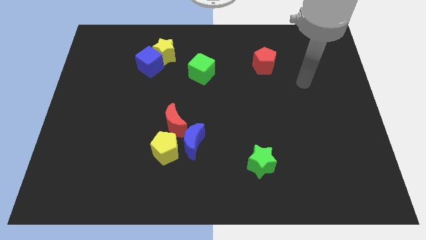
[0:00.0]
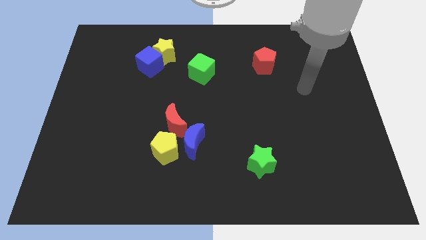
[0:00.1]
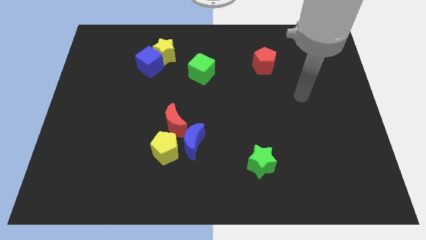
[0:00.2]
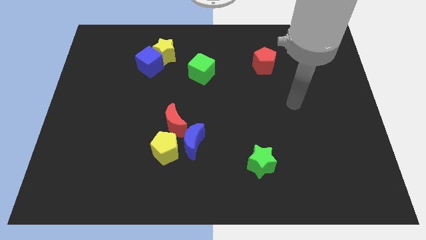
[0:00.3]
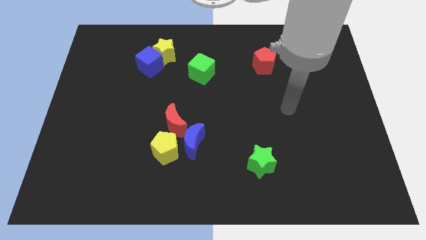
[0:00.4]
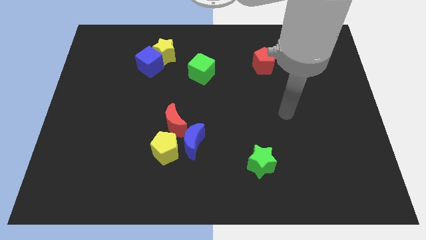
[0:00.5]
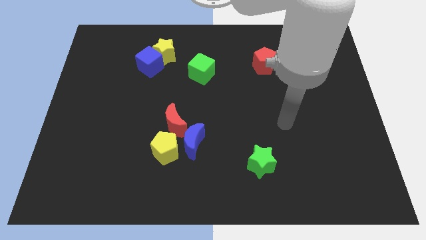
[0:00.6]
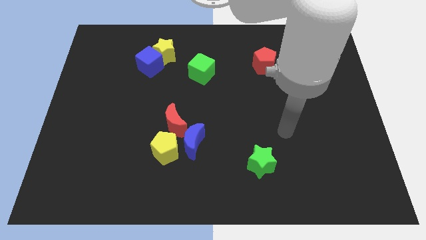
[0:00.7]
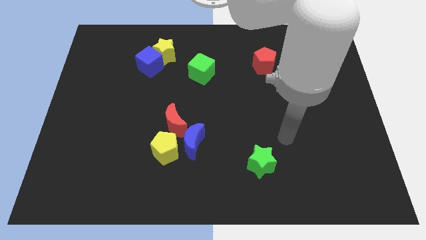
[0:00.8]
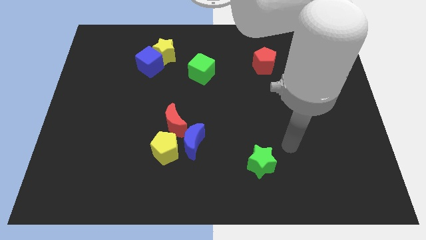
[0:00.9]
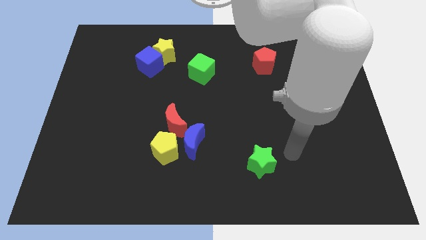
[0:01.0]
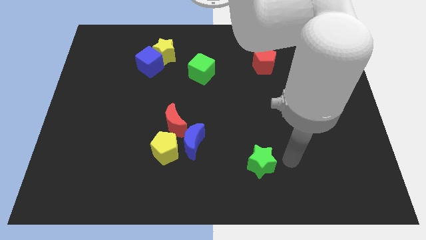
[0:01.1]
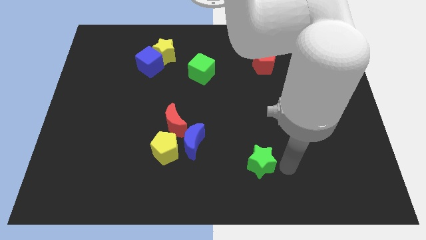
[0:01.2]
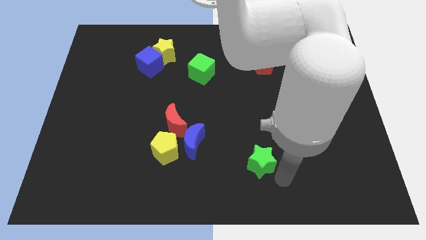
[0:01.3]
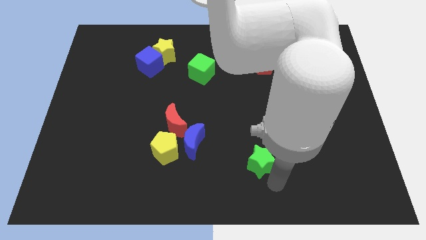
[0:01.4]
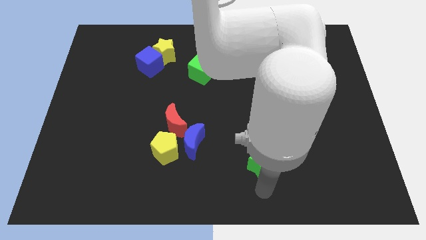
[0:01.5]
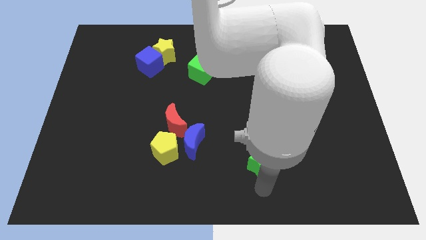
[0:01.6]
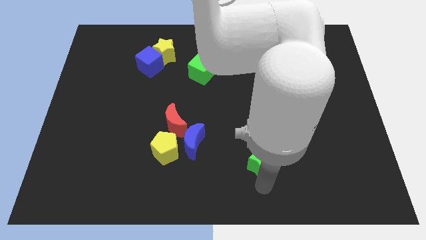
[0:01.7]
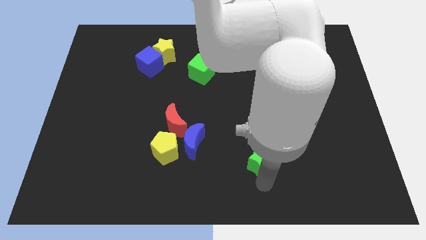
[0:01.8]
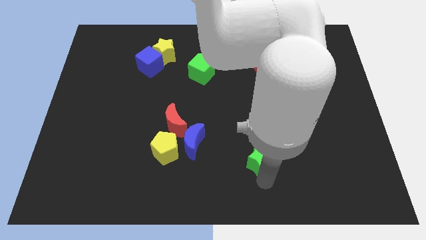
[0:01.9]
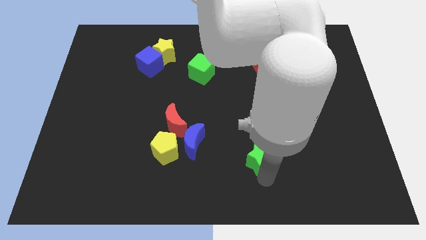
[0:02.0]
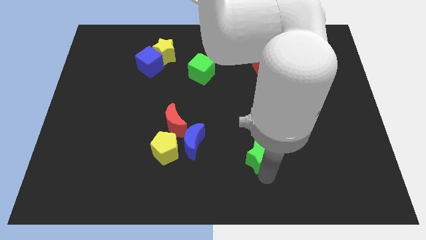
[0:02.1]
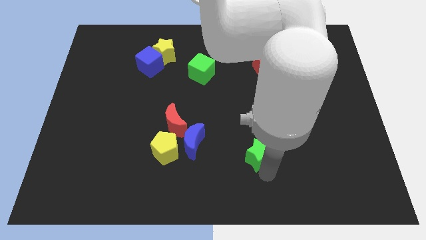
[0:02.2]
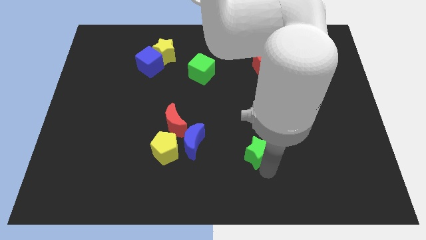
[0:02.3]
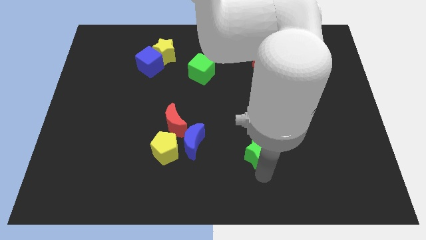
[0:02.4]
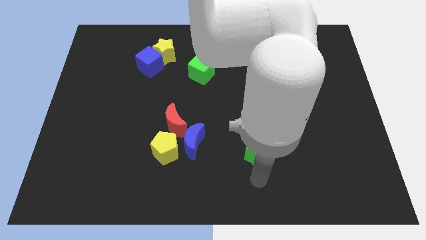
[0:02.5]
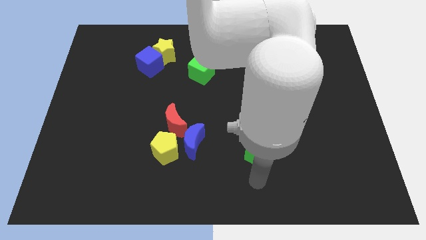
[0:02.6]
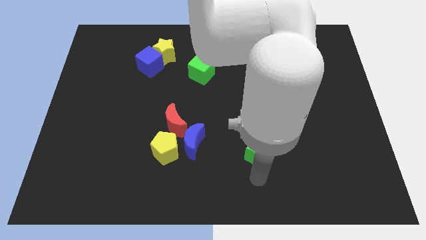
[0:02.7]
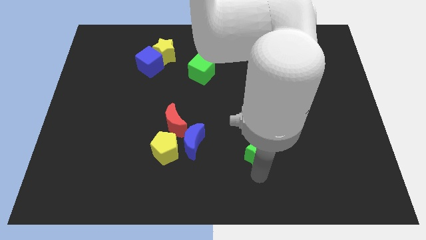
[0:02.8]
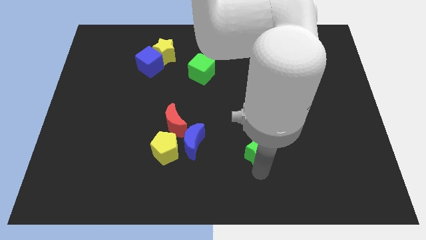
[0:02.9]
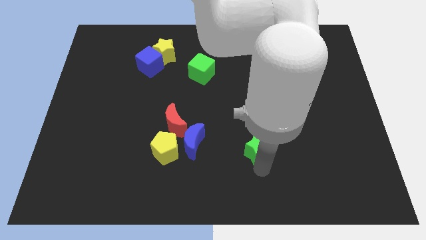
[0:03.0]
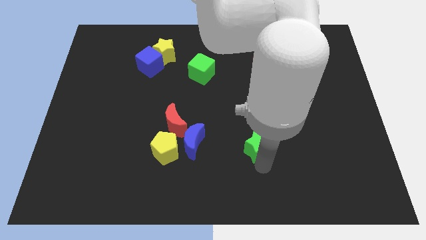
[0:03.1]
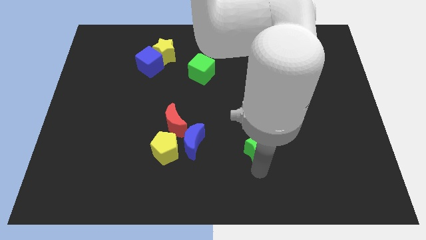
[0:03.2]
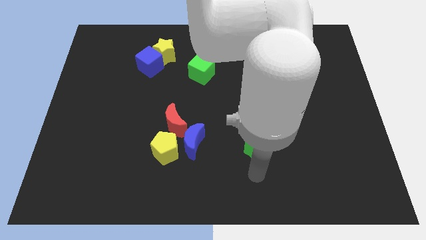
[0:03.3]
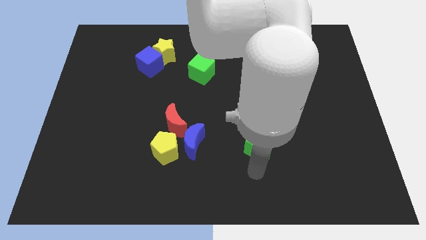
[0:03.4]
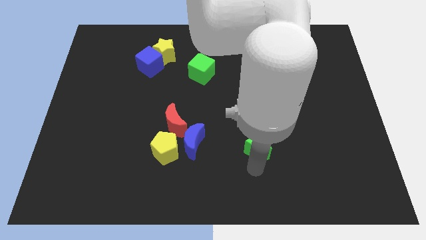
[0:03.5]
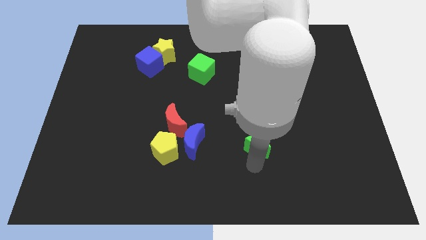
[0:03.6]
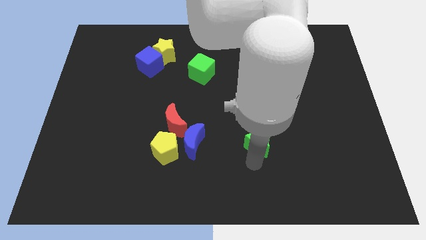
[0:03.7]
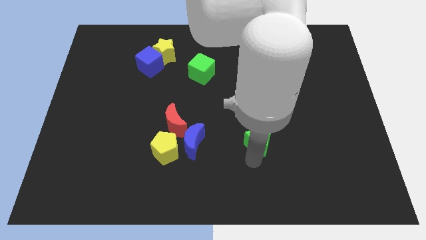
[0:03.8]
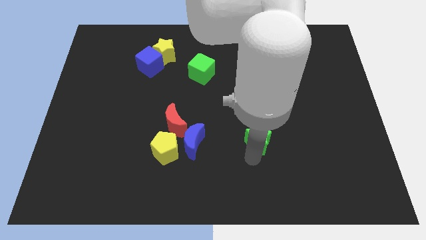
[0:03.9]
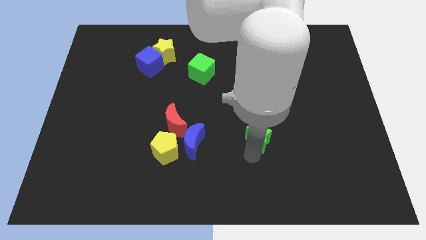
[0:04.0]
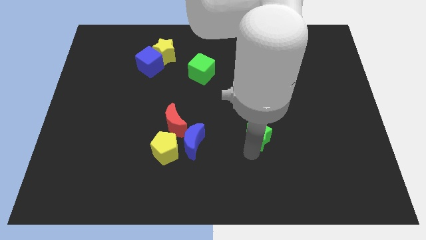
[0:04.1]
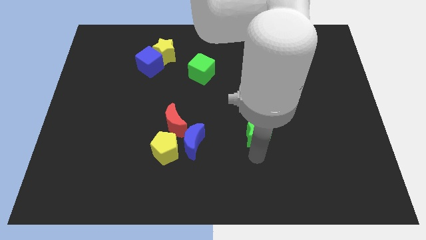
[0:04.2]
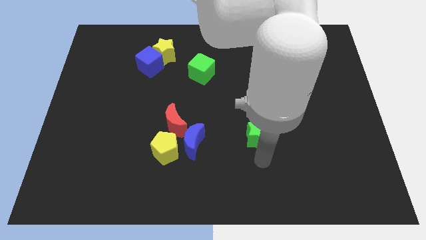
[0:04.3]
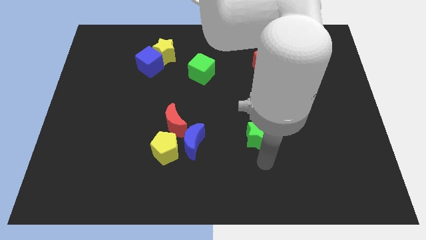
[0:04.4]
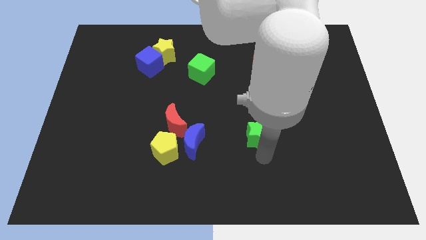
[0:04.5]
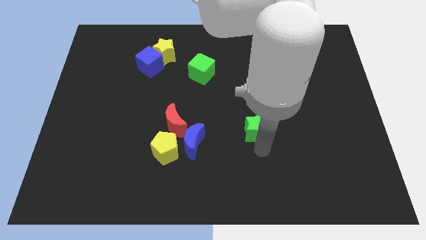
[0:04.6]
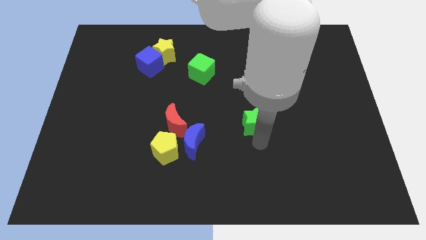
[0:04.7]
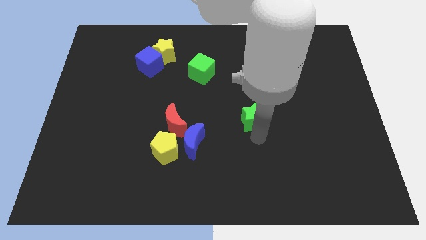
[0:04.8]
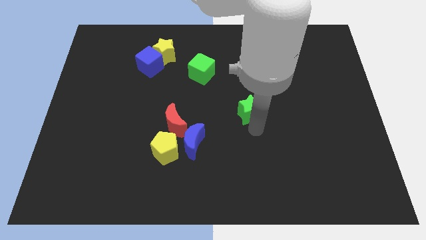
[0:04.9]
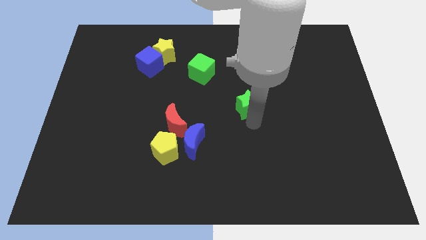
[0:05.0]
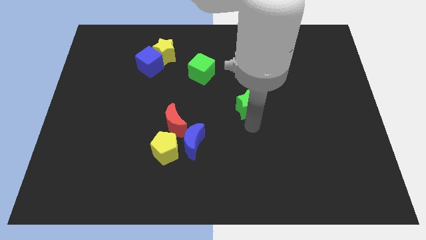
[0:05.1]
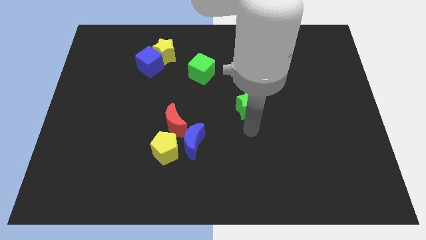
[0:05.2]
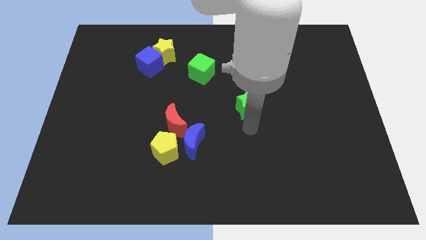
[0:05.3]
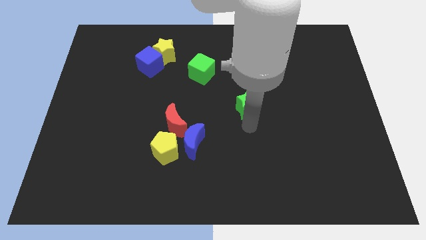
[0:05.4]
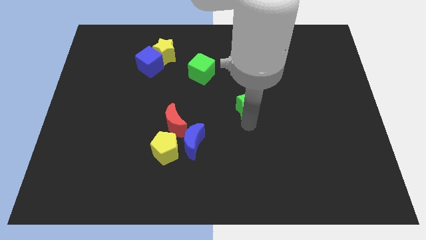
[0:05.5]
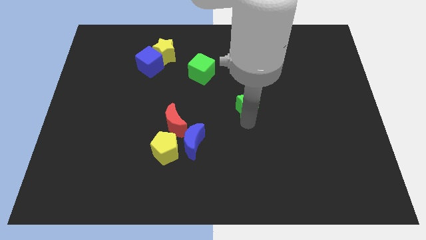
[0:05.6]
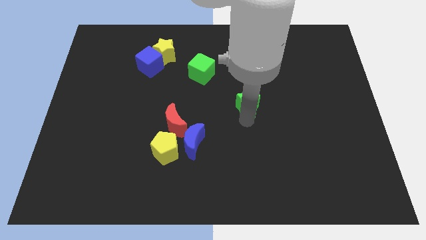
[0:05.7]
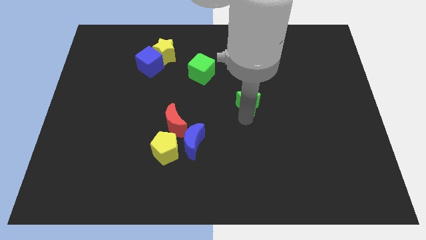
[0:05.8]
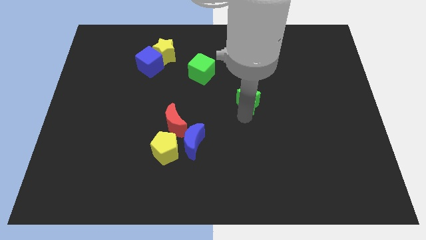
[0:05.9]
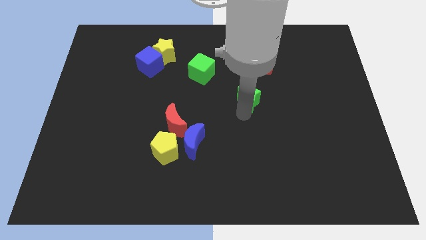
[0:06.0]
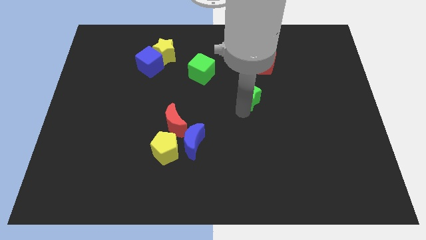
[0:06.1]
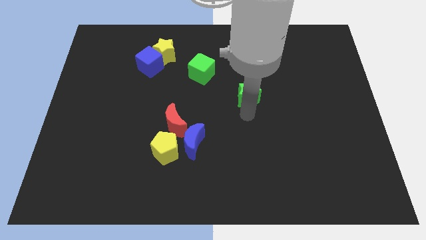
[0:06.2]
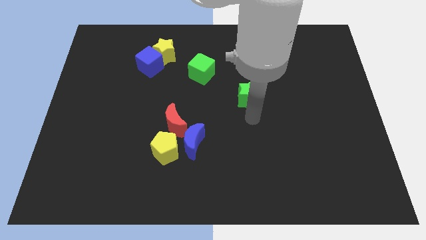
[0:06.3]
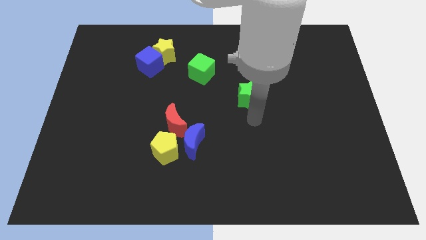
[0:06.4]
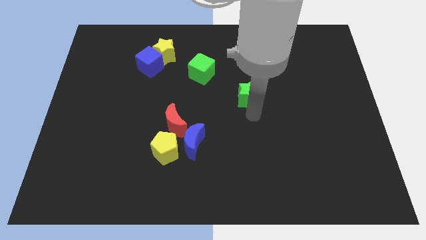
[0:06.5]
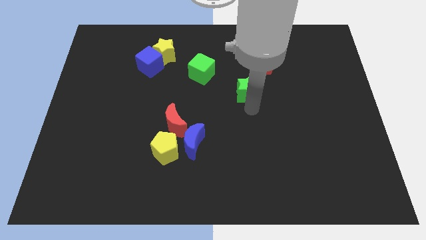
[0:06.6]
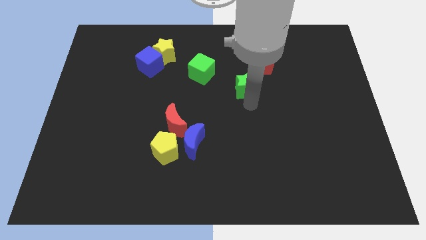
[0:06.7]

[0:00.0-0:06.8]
slide the green star upwards

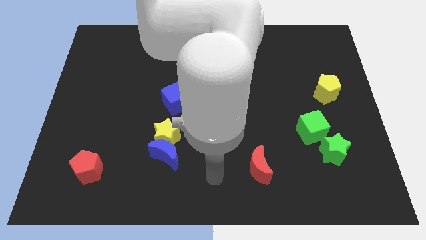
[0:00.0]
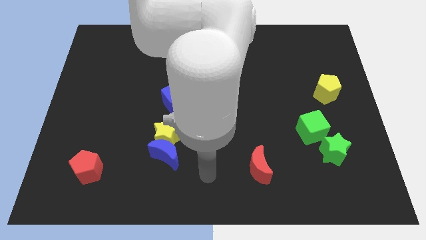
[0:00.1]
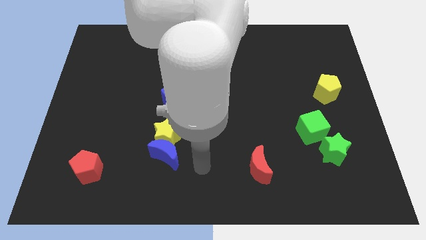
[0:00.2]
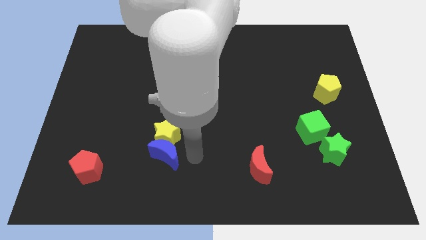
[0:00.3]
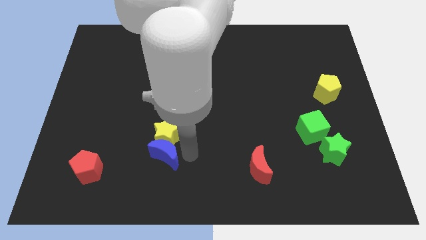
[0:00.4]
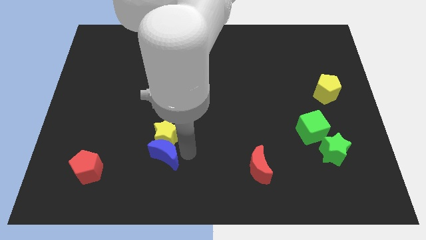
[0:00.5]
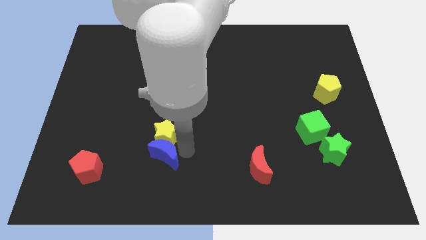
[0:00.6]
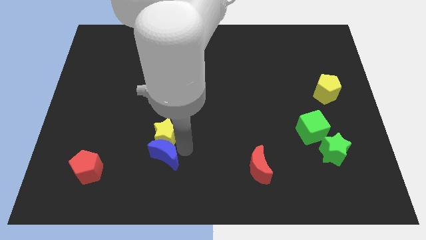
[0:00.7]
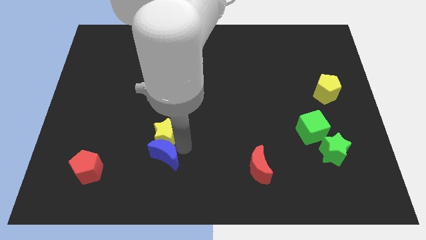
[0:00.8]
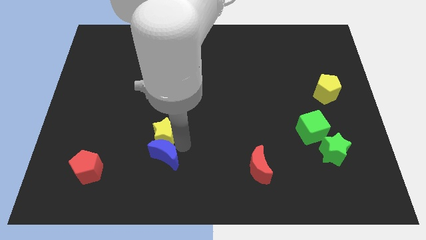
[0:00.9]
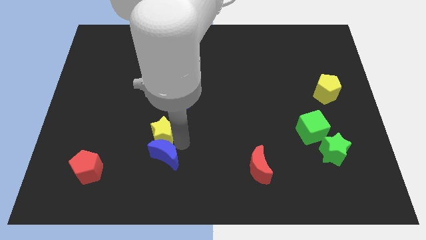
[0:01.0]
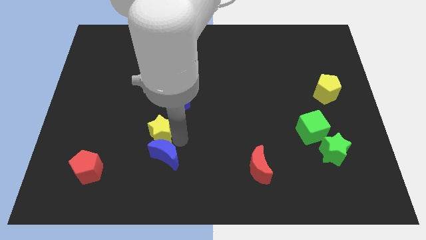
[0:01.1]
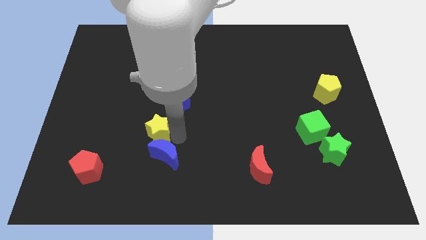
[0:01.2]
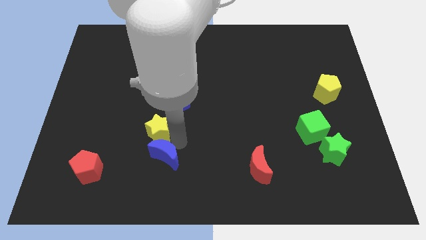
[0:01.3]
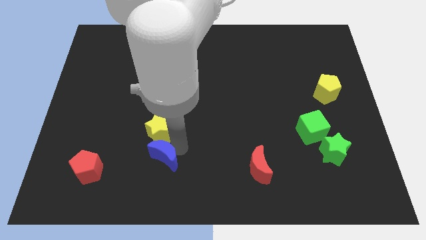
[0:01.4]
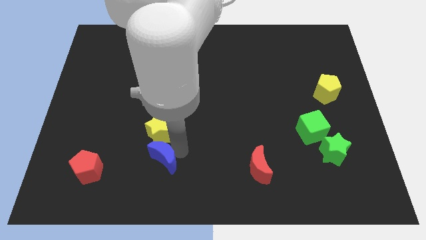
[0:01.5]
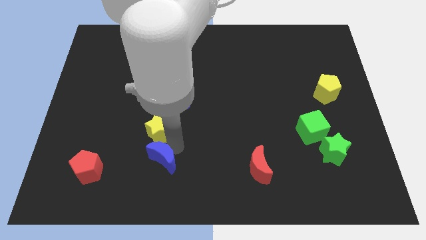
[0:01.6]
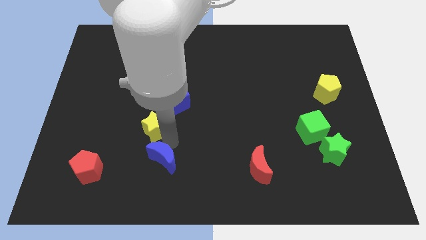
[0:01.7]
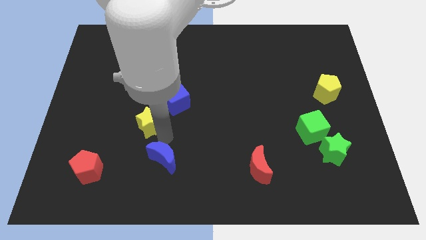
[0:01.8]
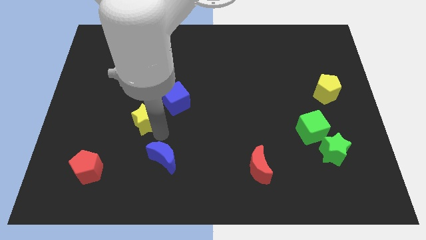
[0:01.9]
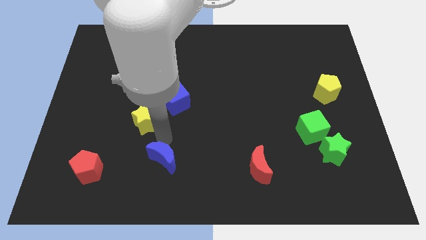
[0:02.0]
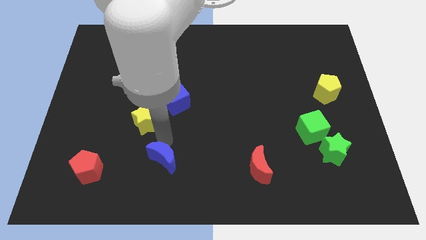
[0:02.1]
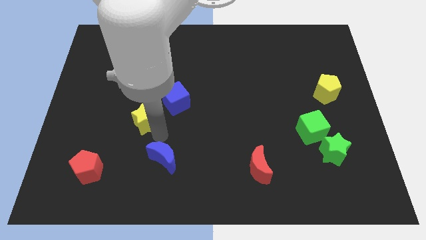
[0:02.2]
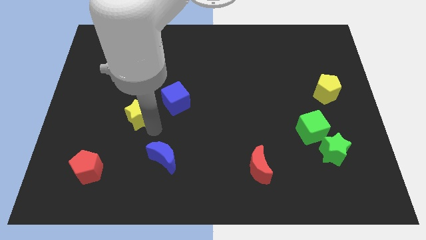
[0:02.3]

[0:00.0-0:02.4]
move the yellow star diagonally upwards and left a bit
